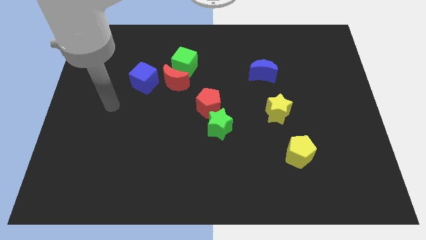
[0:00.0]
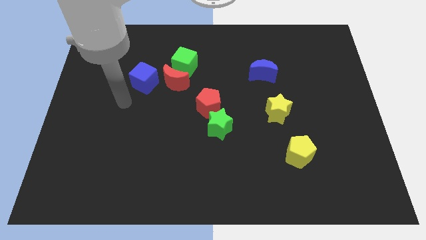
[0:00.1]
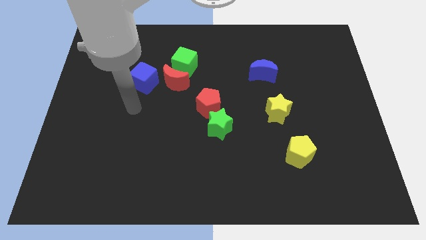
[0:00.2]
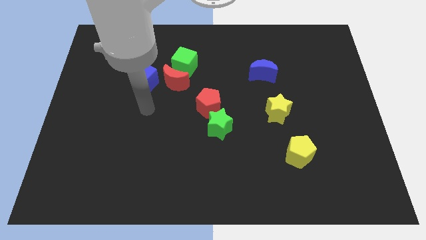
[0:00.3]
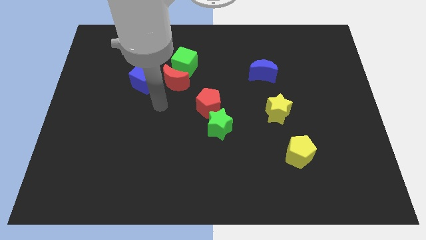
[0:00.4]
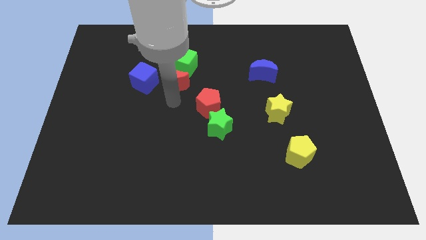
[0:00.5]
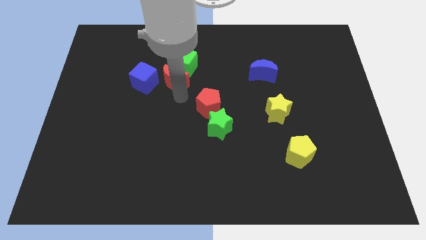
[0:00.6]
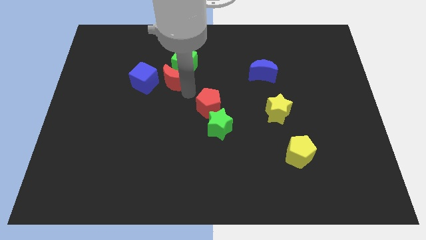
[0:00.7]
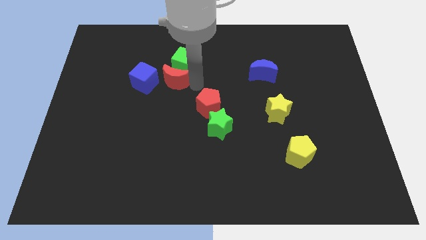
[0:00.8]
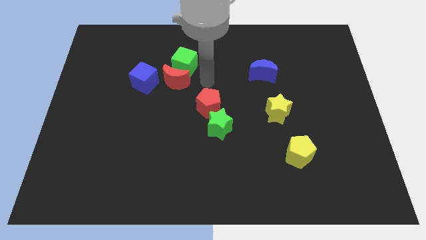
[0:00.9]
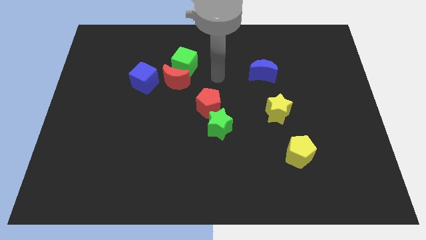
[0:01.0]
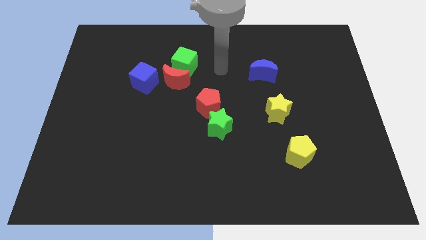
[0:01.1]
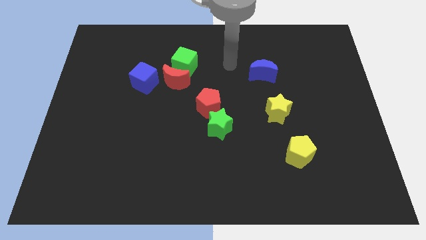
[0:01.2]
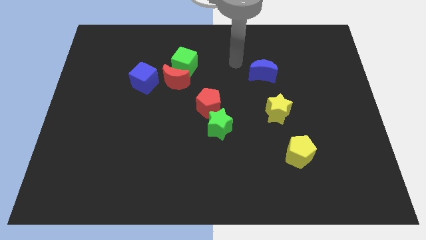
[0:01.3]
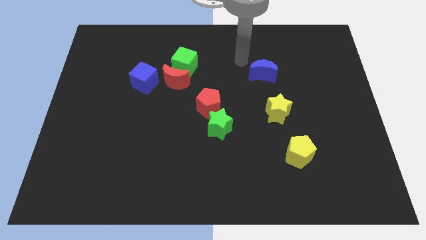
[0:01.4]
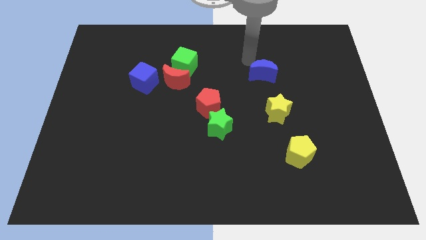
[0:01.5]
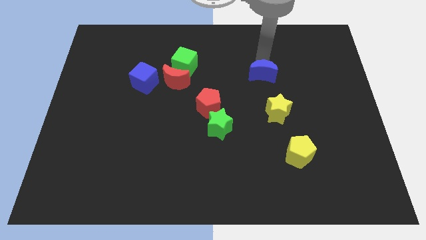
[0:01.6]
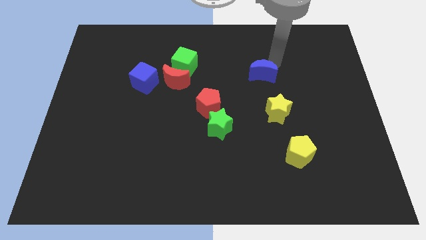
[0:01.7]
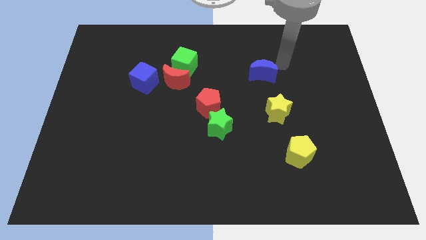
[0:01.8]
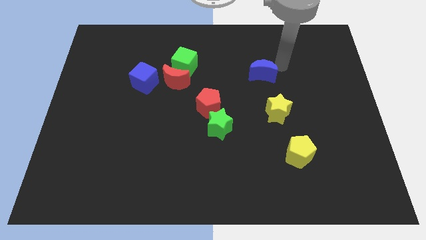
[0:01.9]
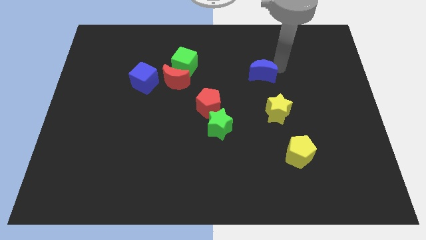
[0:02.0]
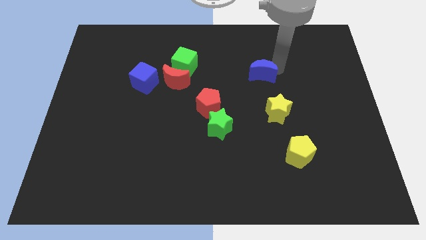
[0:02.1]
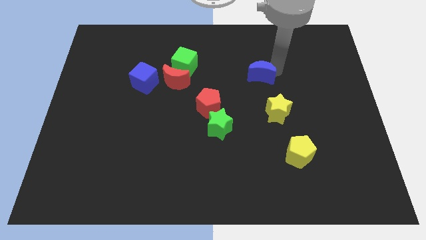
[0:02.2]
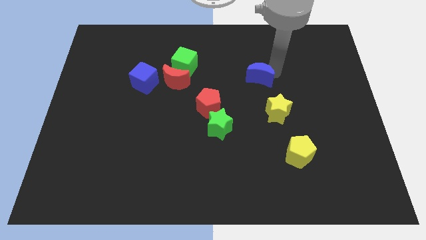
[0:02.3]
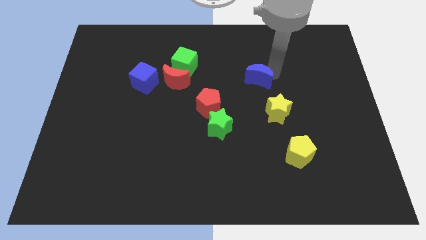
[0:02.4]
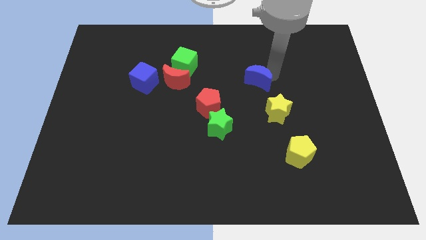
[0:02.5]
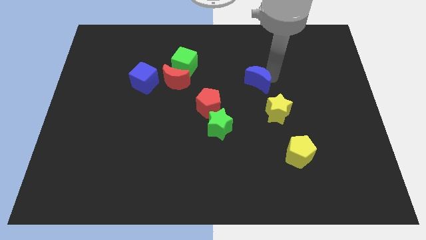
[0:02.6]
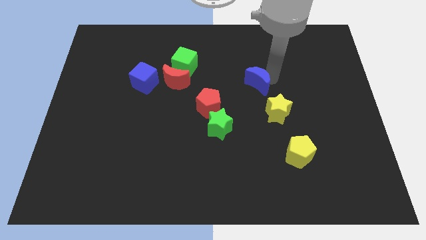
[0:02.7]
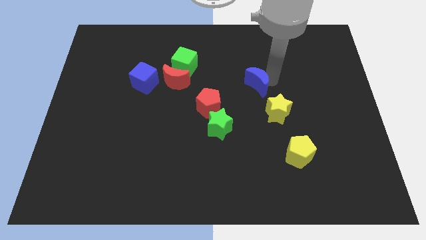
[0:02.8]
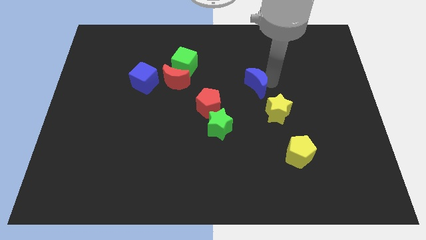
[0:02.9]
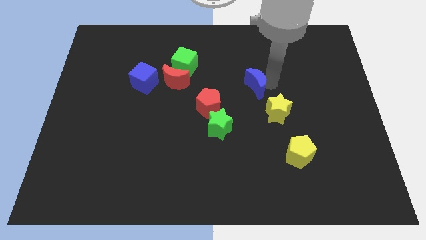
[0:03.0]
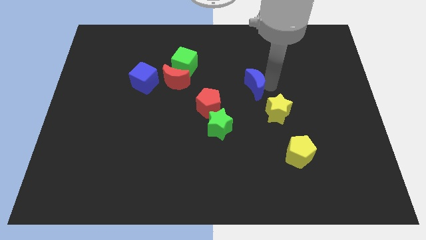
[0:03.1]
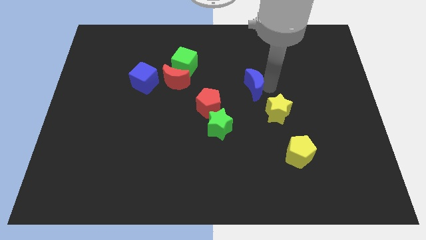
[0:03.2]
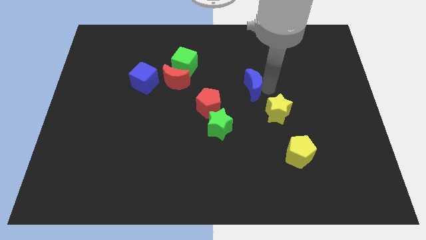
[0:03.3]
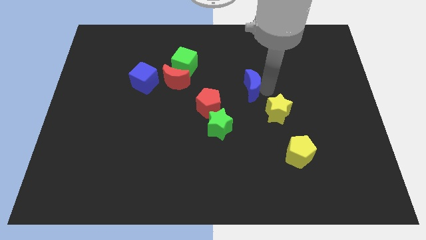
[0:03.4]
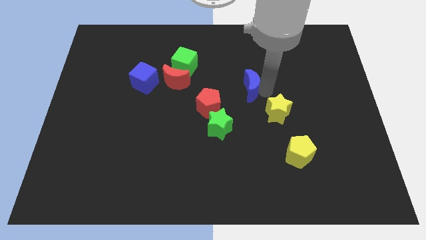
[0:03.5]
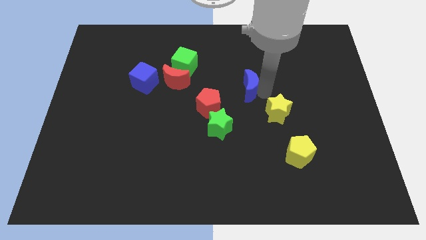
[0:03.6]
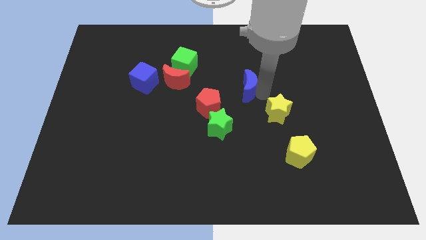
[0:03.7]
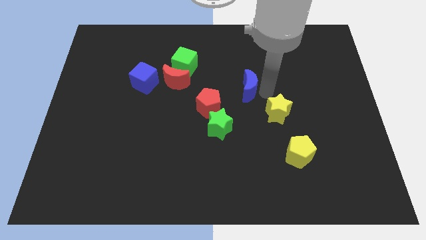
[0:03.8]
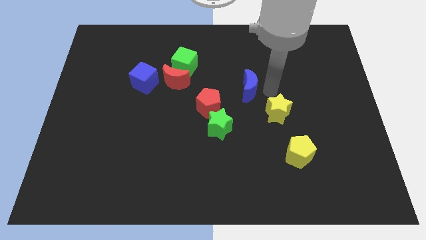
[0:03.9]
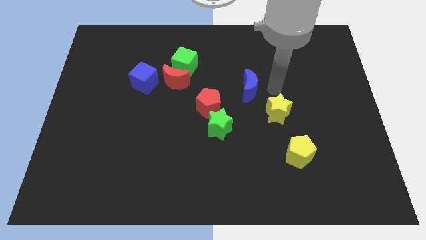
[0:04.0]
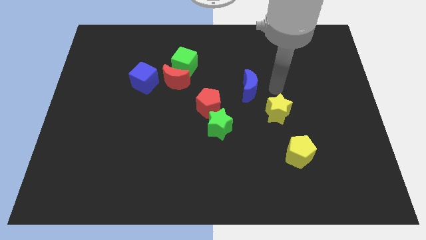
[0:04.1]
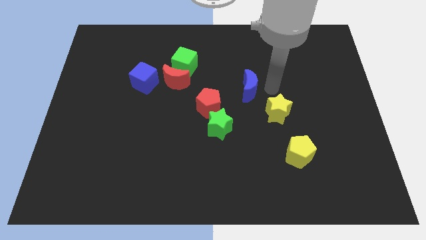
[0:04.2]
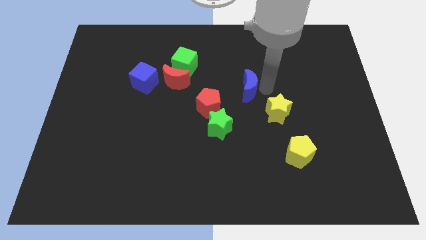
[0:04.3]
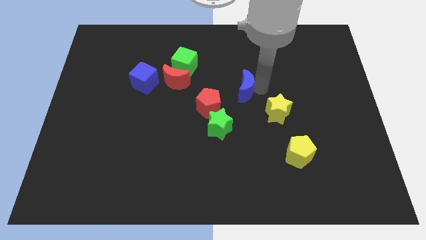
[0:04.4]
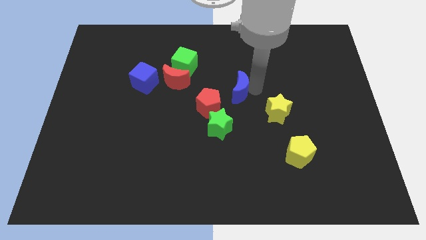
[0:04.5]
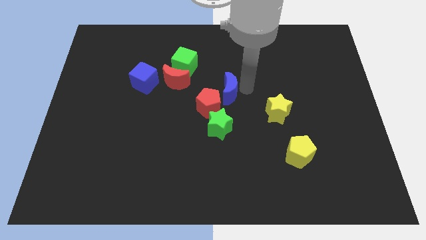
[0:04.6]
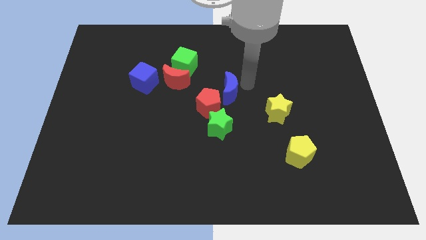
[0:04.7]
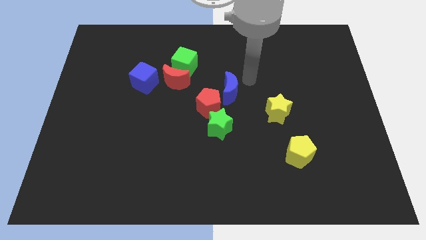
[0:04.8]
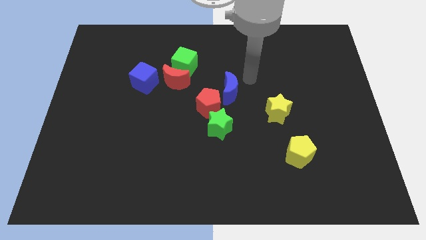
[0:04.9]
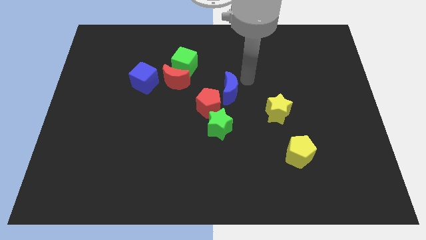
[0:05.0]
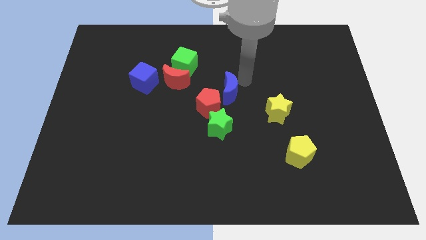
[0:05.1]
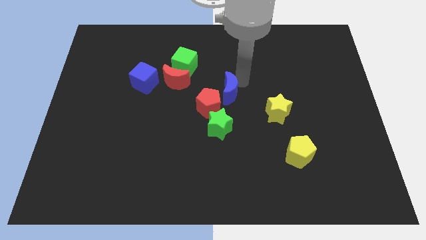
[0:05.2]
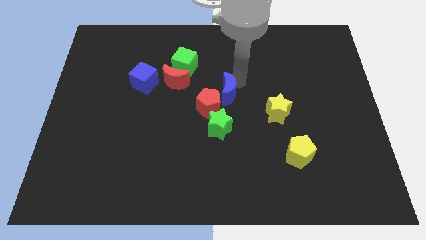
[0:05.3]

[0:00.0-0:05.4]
put the blue moon next to the red pentagon

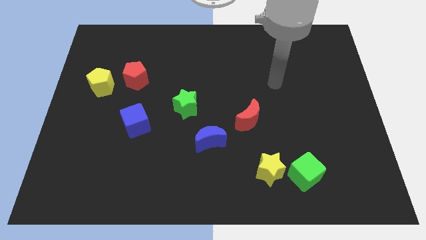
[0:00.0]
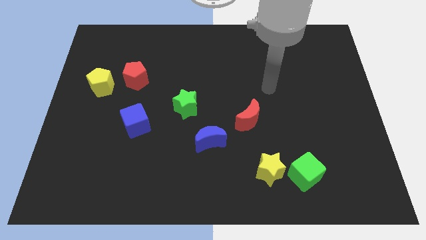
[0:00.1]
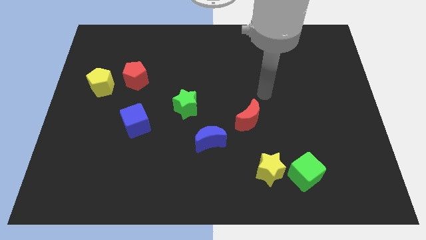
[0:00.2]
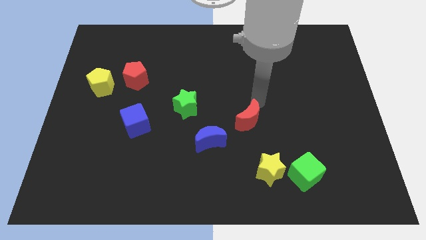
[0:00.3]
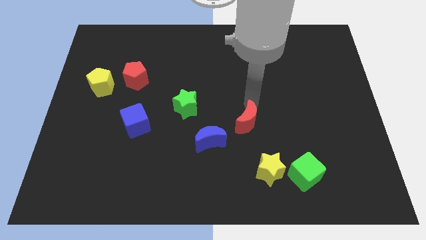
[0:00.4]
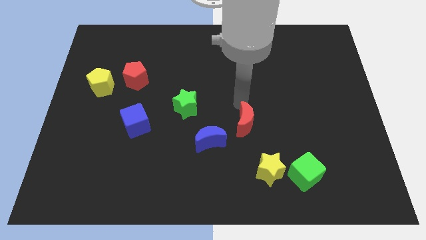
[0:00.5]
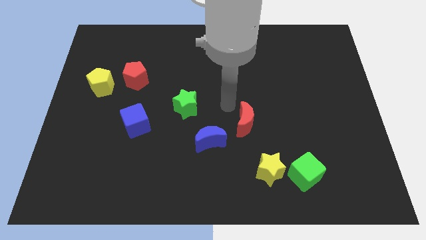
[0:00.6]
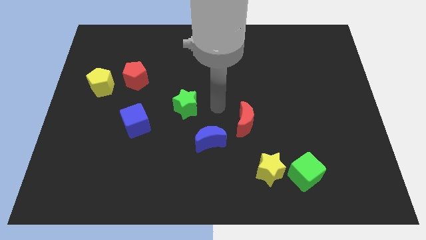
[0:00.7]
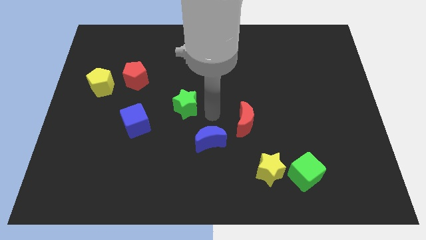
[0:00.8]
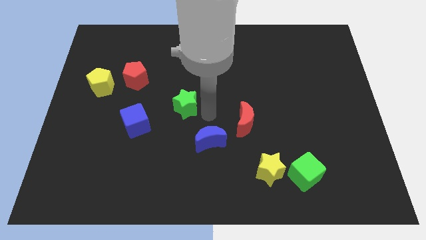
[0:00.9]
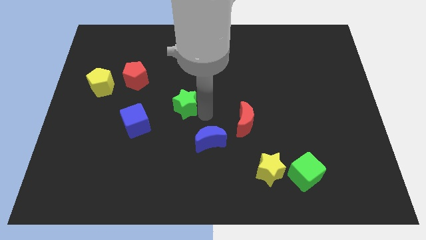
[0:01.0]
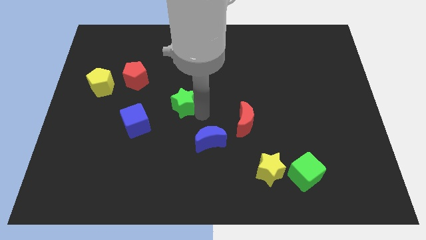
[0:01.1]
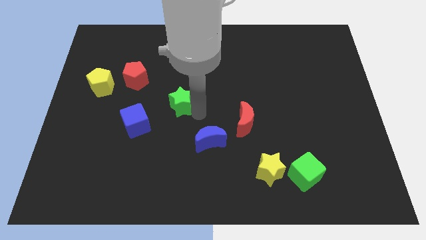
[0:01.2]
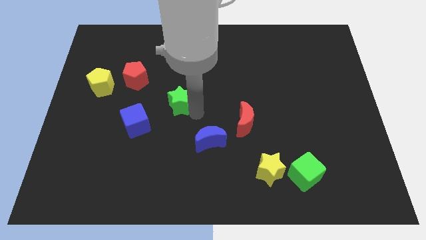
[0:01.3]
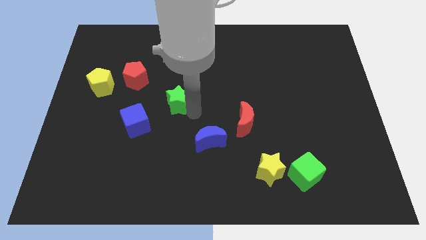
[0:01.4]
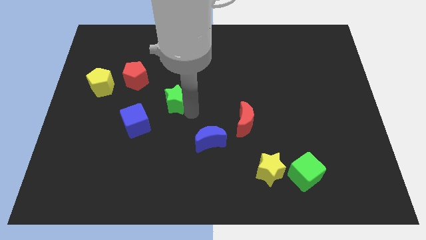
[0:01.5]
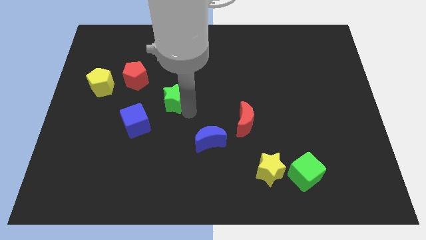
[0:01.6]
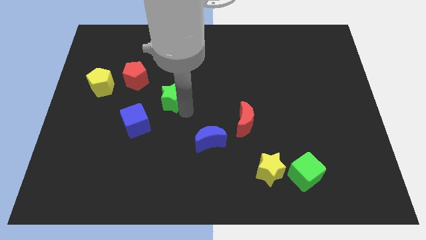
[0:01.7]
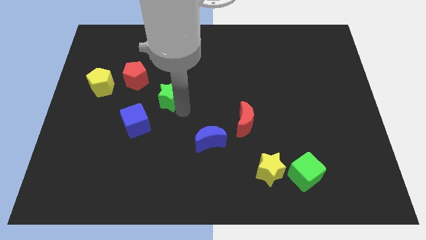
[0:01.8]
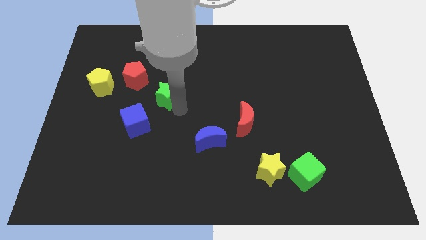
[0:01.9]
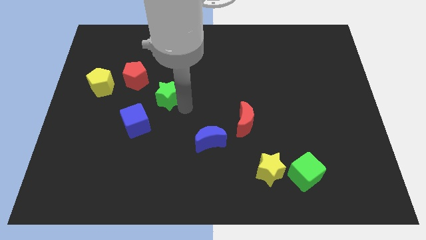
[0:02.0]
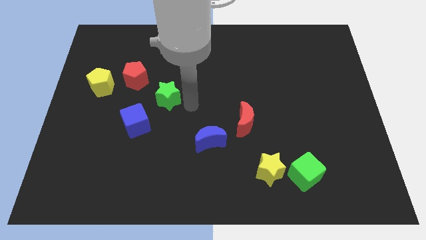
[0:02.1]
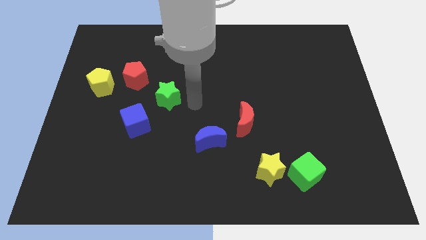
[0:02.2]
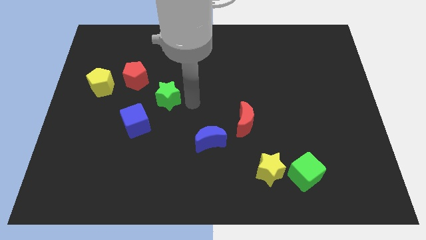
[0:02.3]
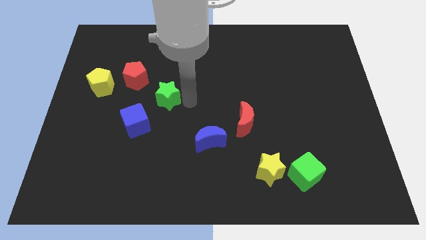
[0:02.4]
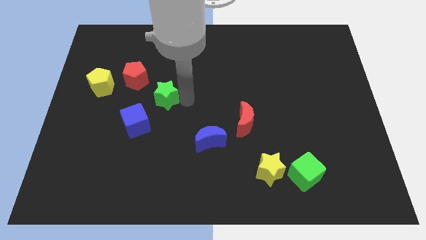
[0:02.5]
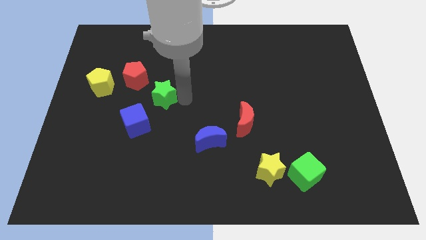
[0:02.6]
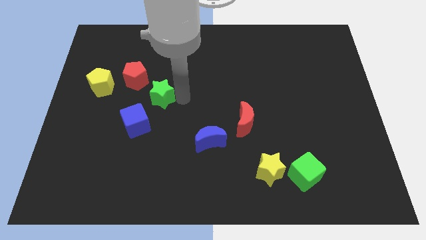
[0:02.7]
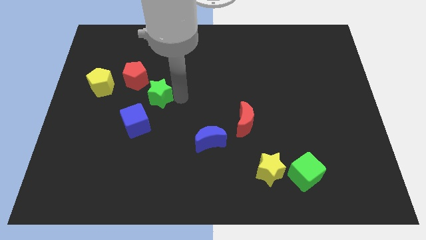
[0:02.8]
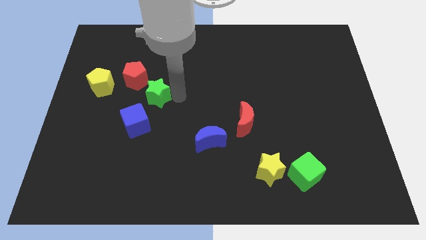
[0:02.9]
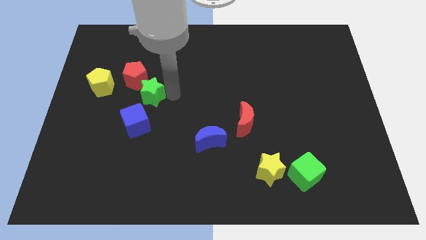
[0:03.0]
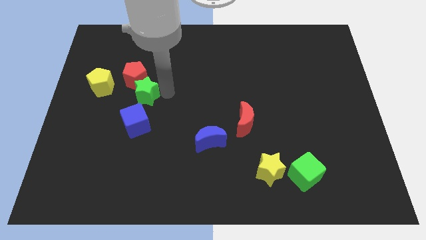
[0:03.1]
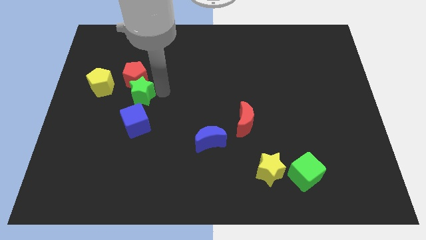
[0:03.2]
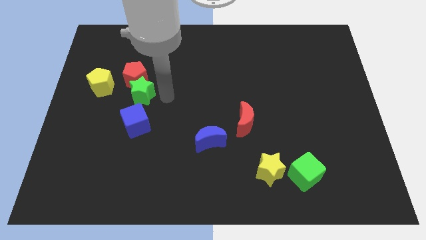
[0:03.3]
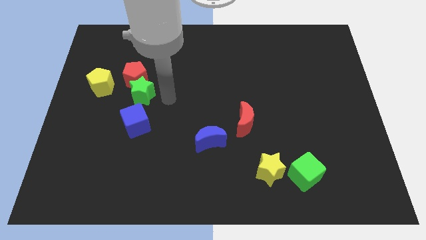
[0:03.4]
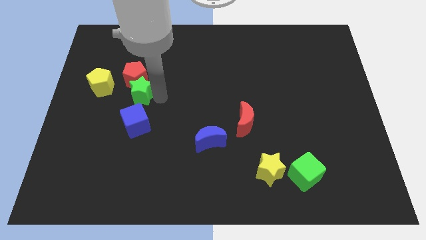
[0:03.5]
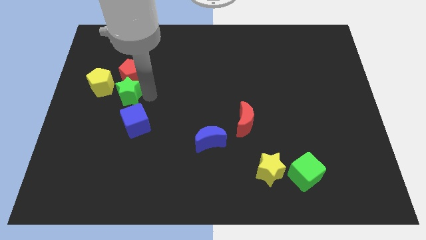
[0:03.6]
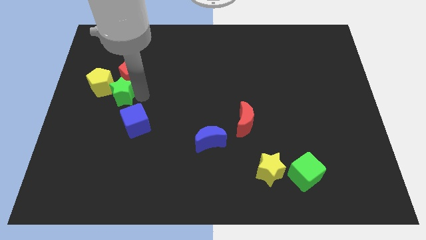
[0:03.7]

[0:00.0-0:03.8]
put the green star to the yellow pentagon
